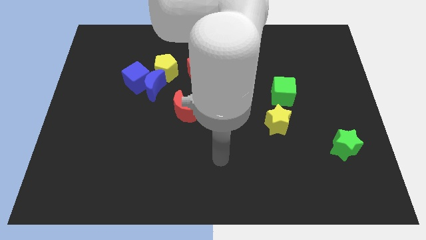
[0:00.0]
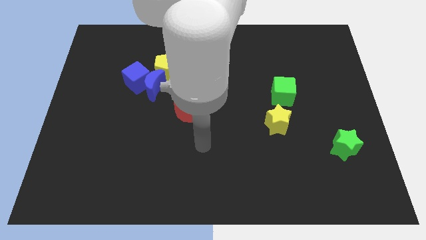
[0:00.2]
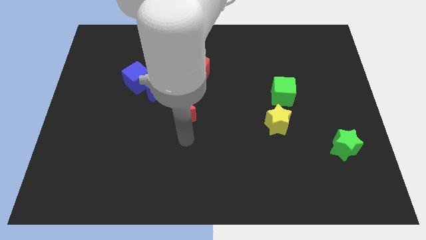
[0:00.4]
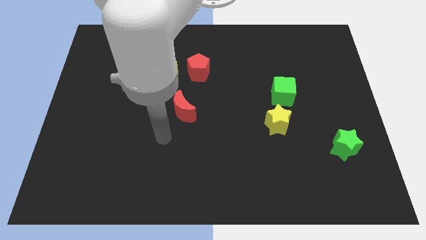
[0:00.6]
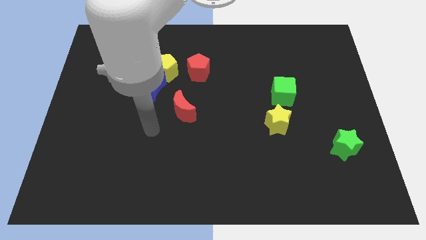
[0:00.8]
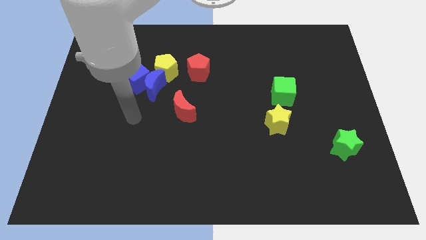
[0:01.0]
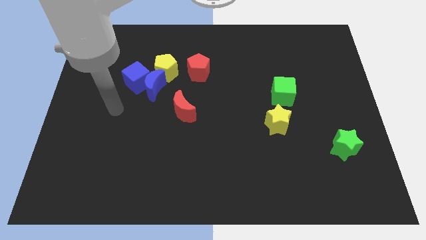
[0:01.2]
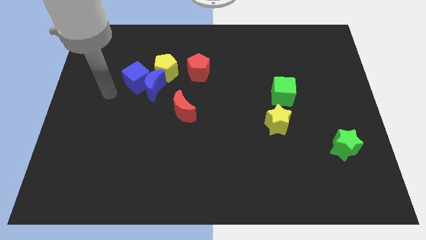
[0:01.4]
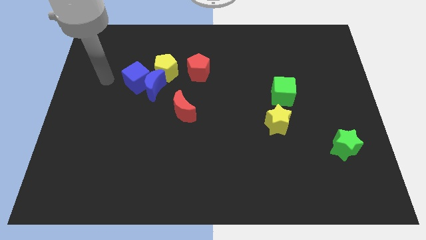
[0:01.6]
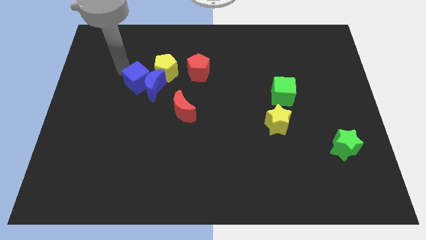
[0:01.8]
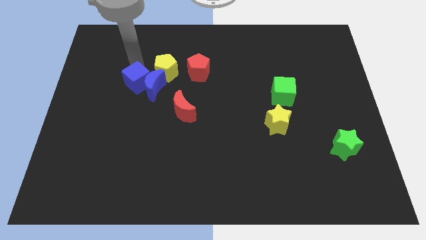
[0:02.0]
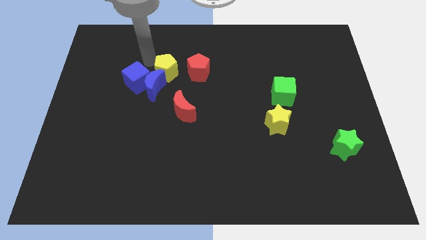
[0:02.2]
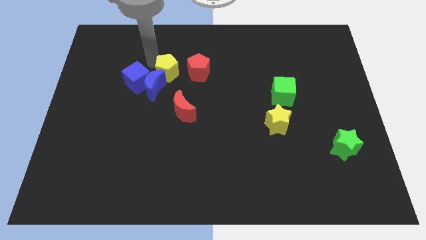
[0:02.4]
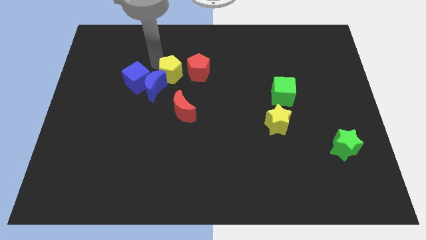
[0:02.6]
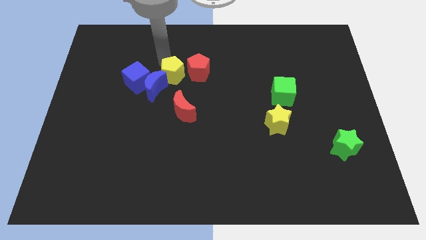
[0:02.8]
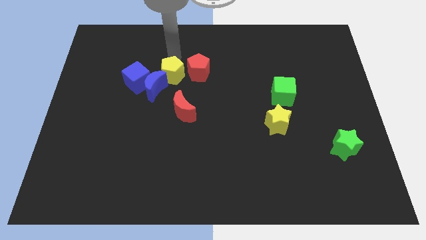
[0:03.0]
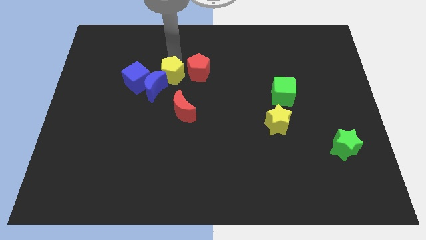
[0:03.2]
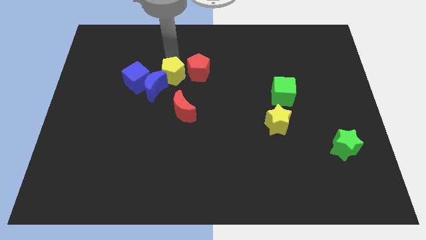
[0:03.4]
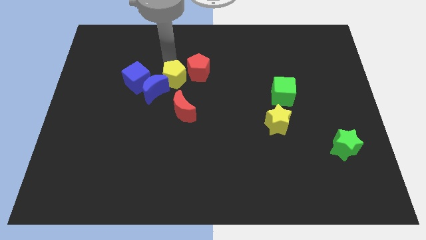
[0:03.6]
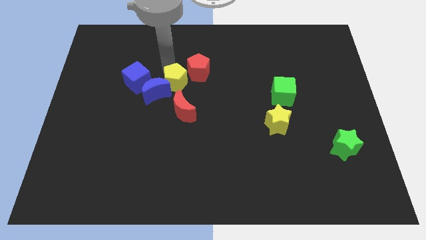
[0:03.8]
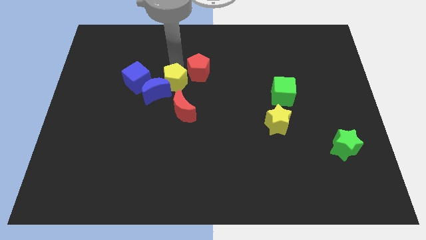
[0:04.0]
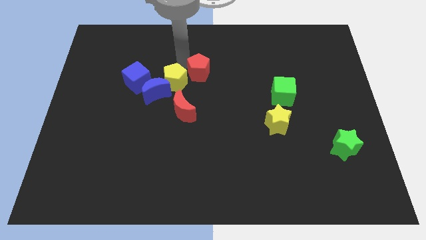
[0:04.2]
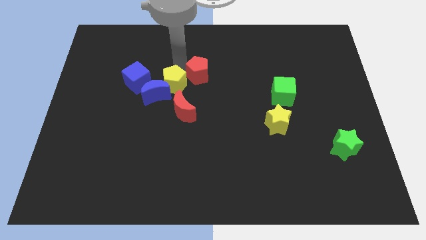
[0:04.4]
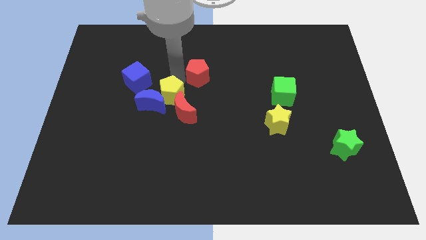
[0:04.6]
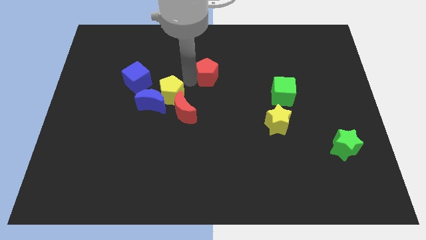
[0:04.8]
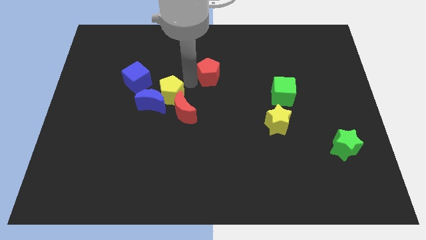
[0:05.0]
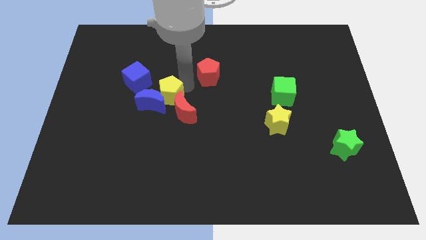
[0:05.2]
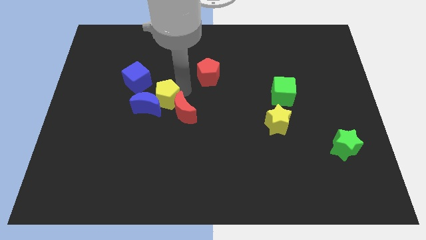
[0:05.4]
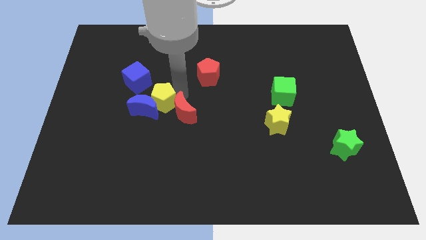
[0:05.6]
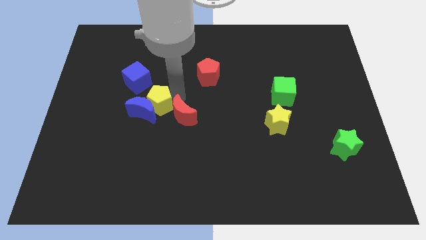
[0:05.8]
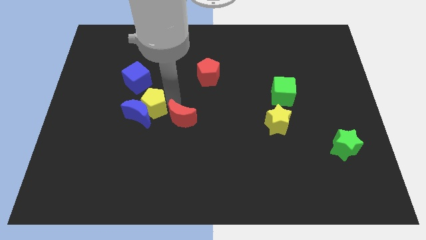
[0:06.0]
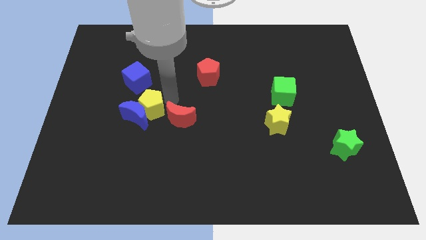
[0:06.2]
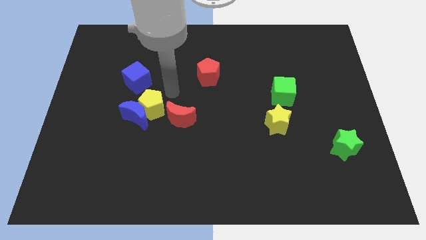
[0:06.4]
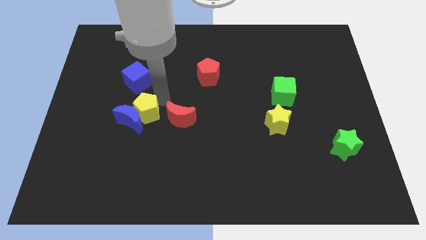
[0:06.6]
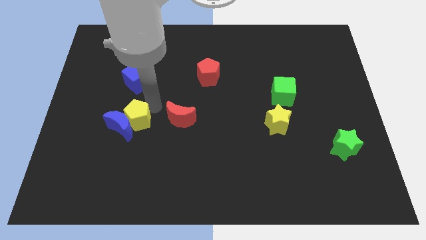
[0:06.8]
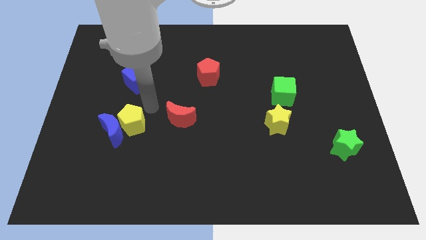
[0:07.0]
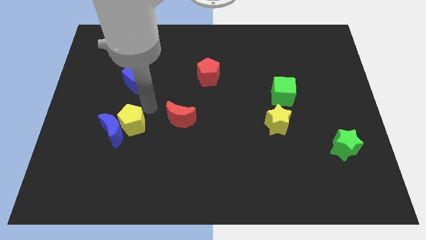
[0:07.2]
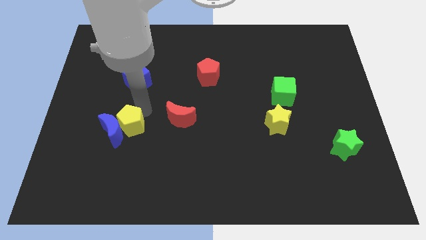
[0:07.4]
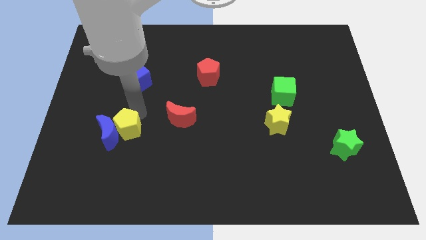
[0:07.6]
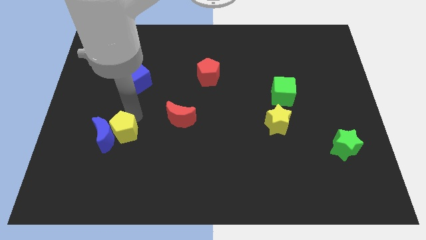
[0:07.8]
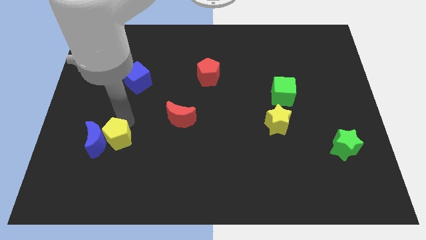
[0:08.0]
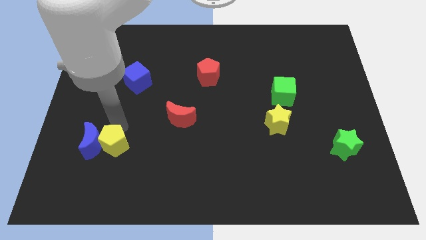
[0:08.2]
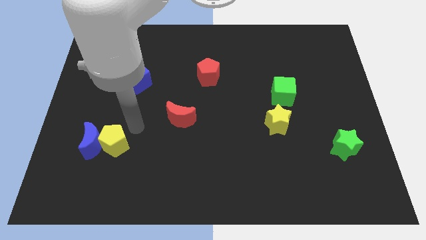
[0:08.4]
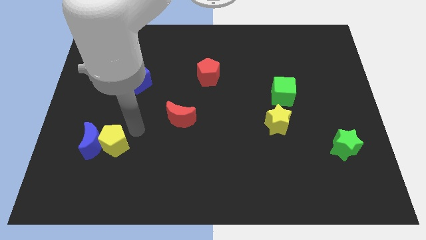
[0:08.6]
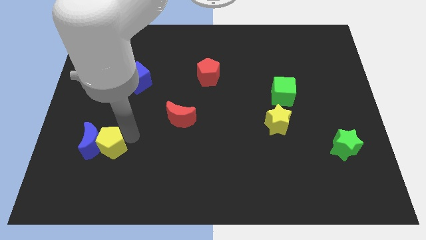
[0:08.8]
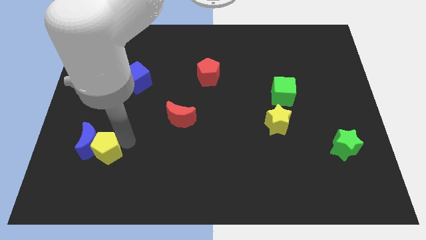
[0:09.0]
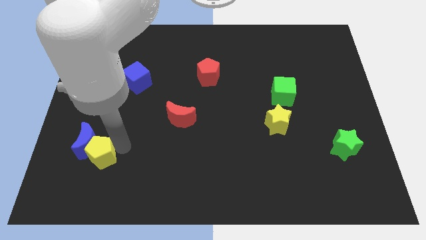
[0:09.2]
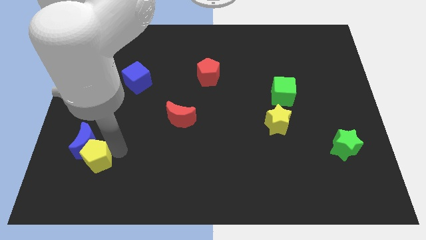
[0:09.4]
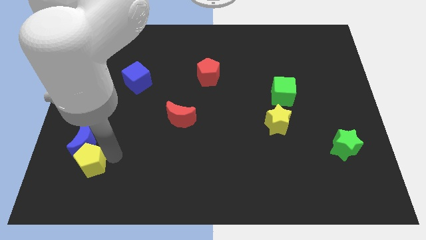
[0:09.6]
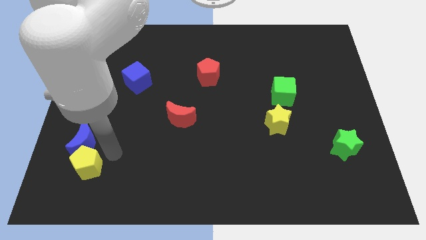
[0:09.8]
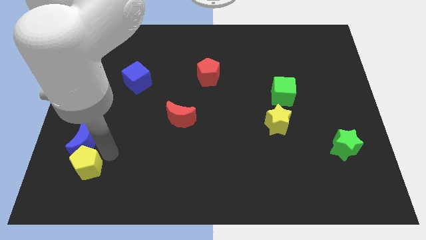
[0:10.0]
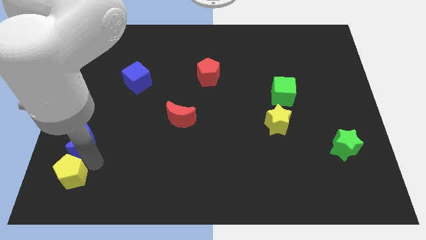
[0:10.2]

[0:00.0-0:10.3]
move the yellow pentagon to the bottom left corner

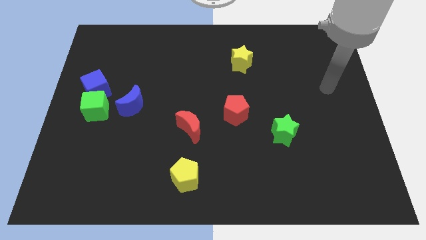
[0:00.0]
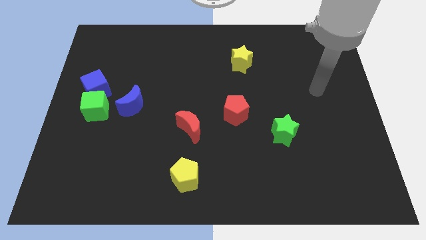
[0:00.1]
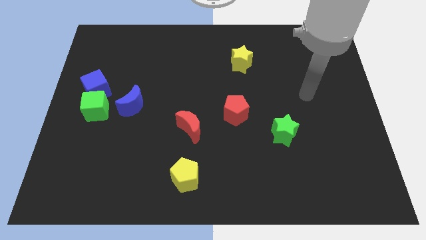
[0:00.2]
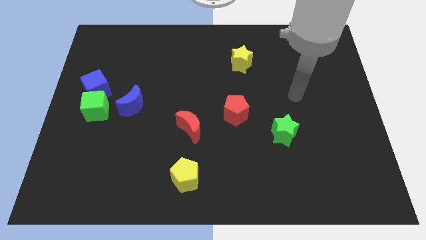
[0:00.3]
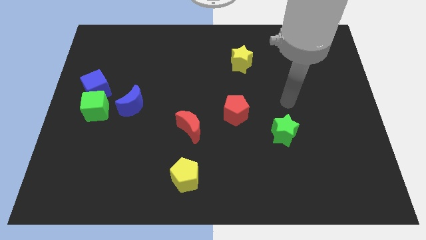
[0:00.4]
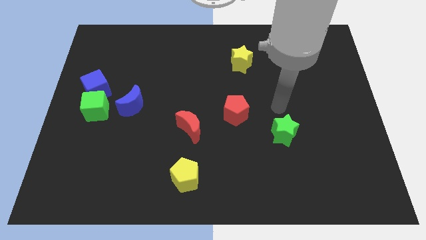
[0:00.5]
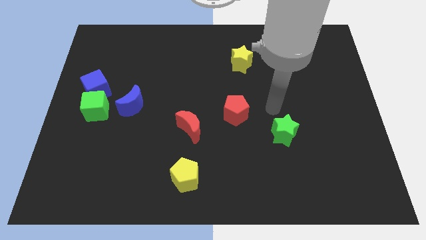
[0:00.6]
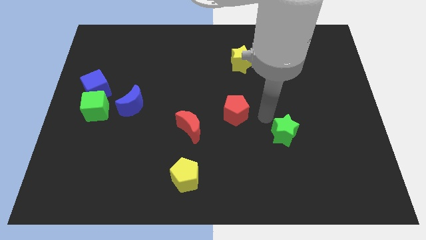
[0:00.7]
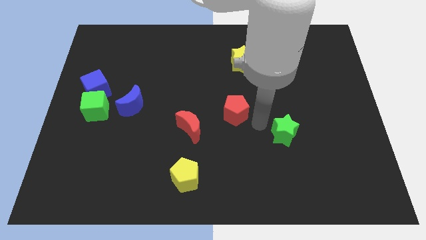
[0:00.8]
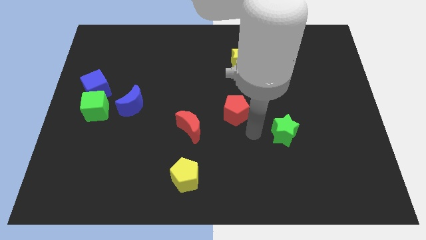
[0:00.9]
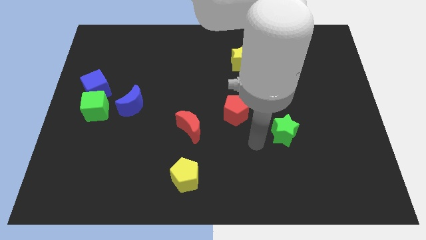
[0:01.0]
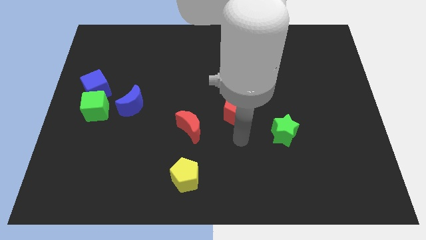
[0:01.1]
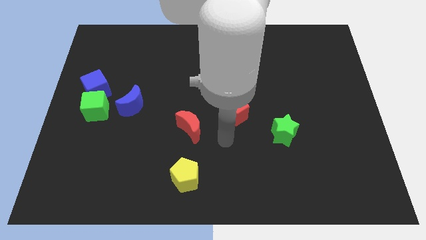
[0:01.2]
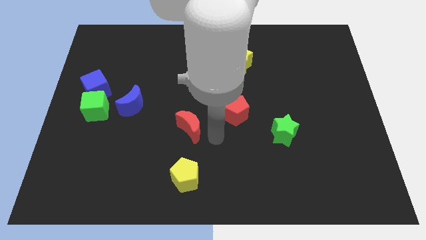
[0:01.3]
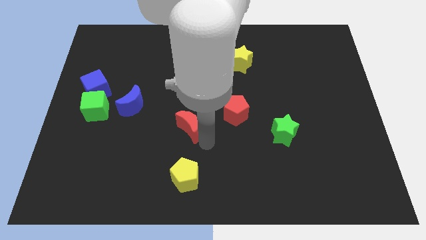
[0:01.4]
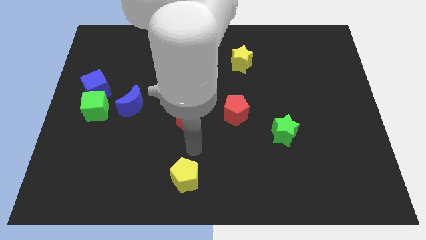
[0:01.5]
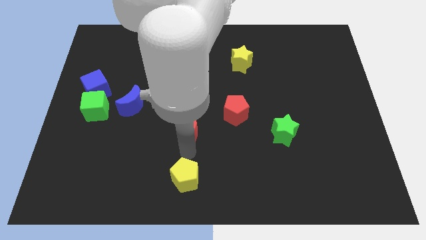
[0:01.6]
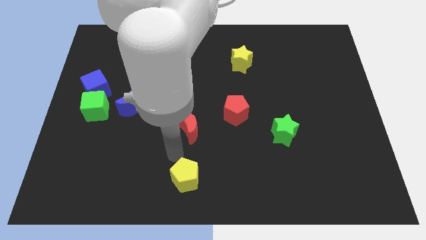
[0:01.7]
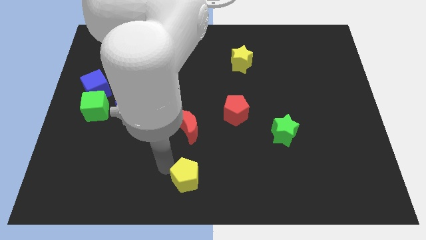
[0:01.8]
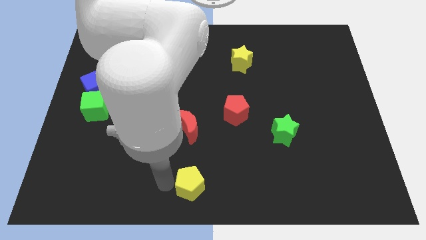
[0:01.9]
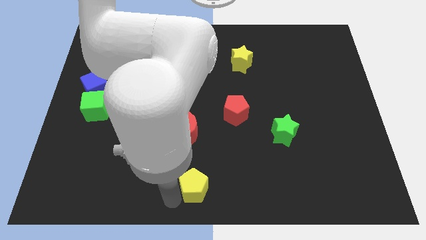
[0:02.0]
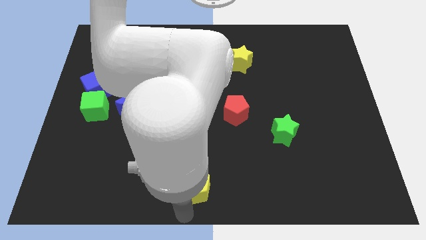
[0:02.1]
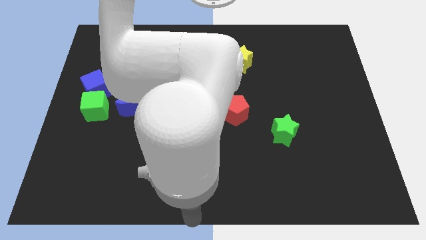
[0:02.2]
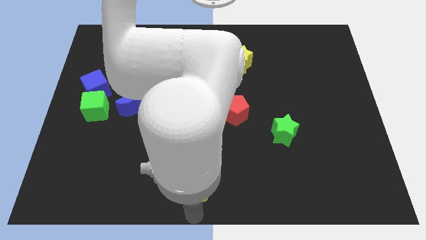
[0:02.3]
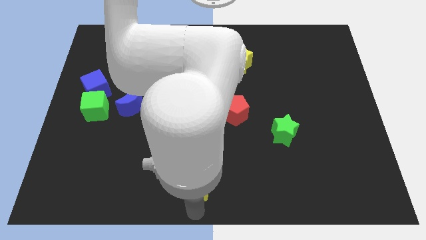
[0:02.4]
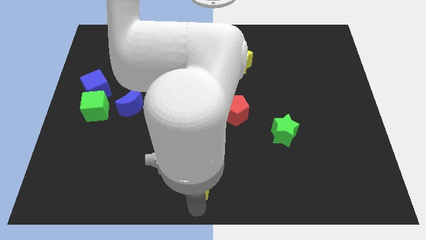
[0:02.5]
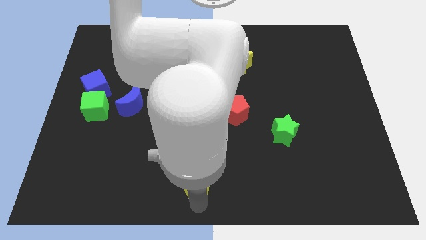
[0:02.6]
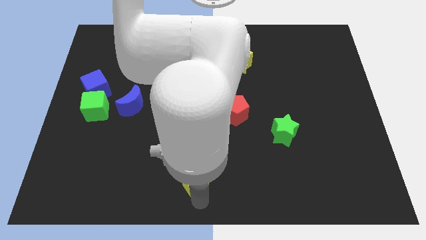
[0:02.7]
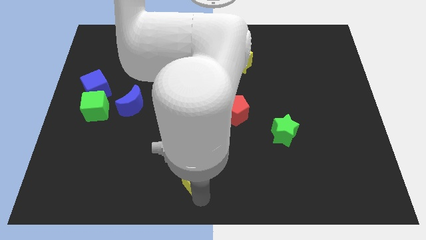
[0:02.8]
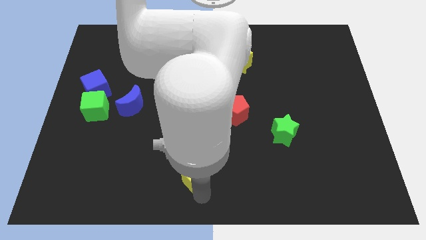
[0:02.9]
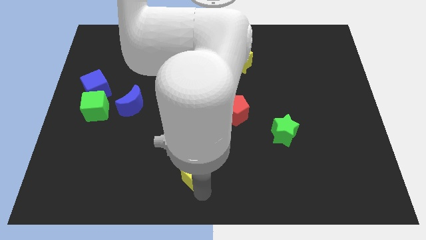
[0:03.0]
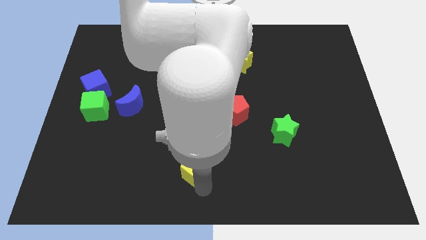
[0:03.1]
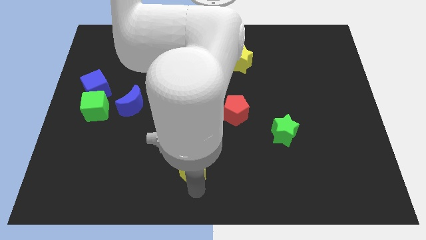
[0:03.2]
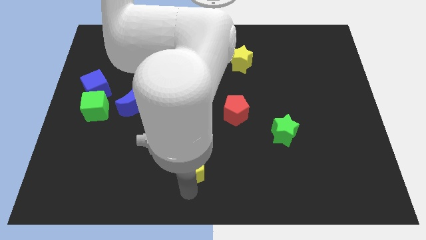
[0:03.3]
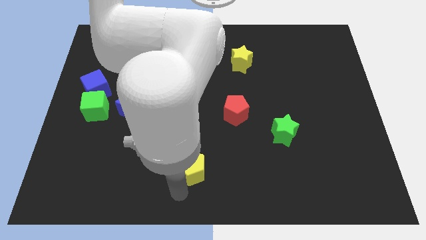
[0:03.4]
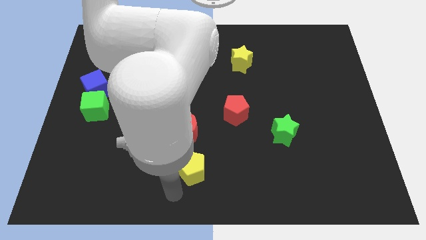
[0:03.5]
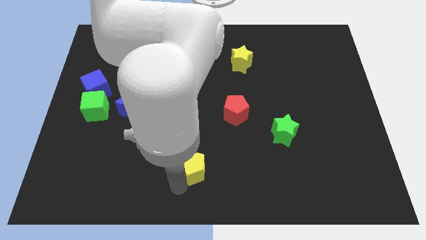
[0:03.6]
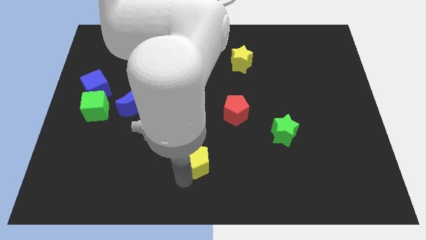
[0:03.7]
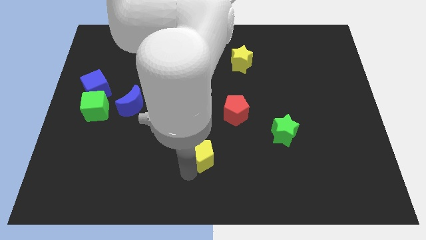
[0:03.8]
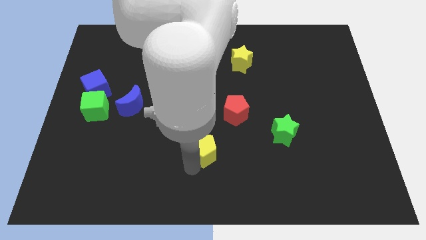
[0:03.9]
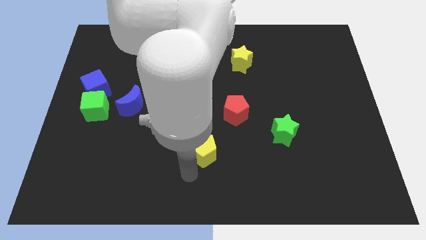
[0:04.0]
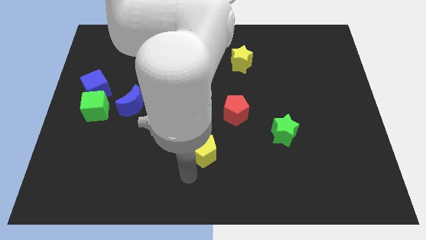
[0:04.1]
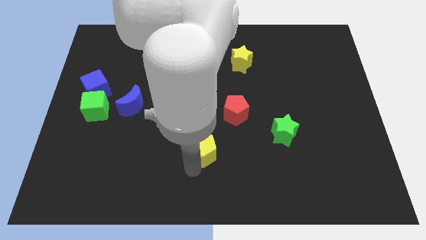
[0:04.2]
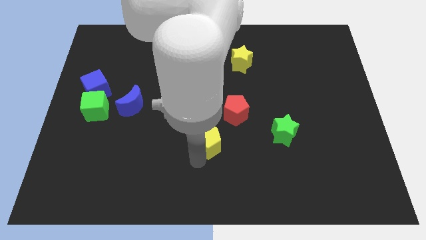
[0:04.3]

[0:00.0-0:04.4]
slide the yellow pentagon to the middle of the board
